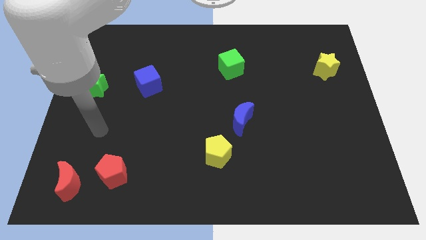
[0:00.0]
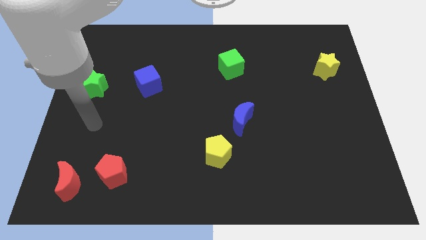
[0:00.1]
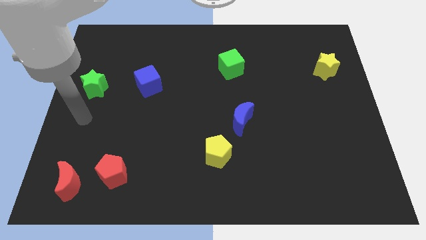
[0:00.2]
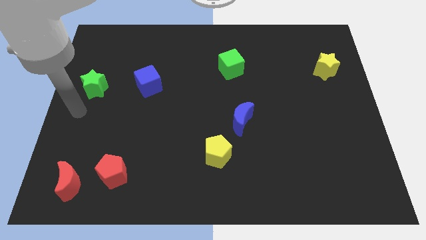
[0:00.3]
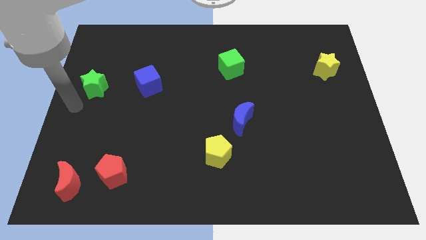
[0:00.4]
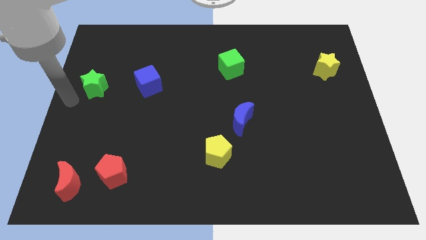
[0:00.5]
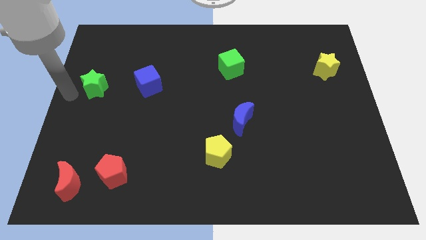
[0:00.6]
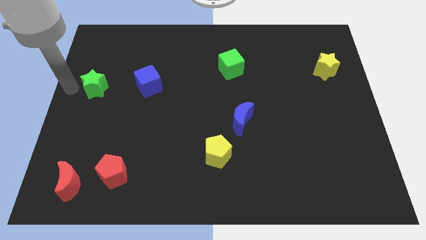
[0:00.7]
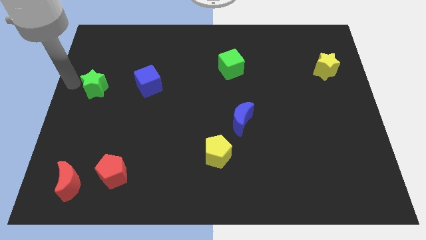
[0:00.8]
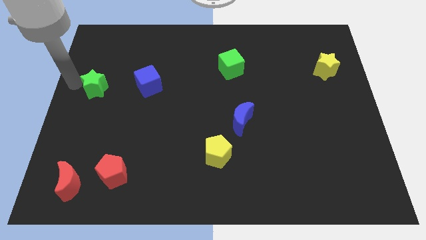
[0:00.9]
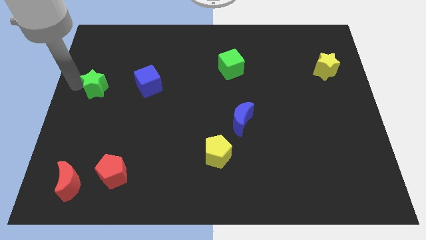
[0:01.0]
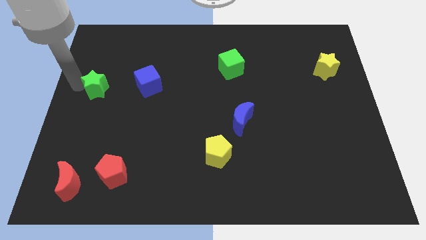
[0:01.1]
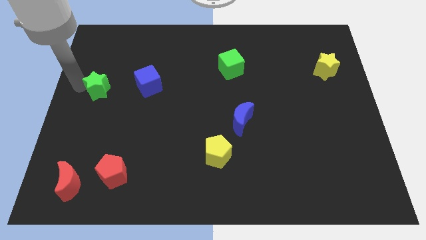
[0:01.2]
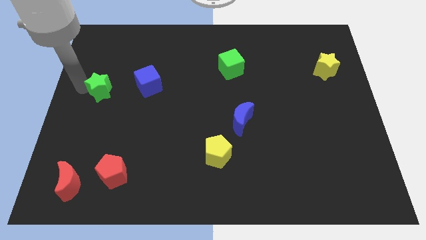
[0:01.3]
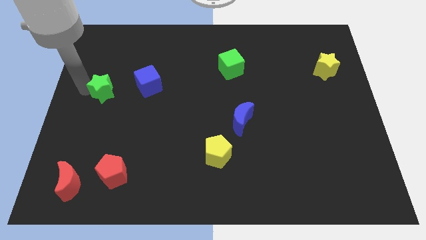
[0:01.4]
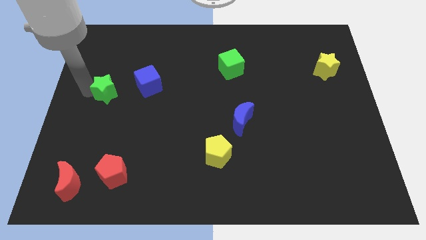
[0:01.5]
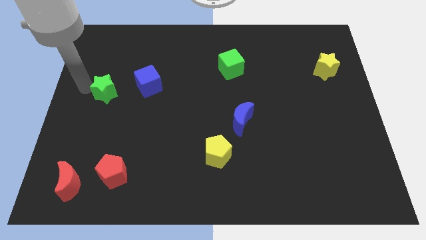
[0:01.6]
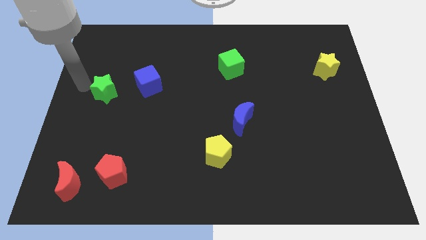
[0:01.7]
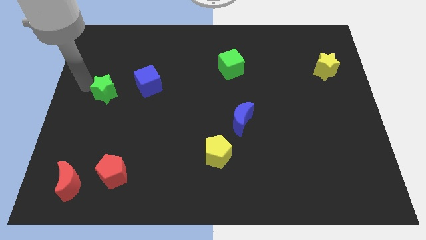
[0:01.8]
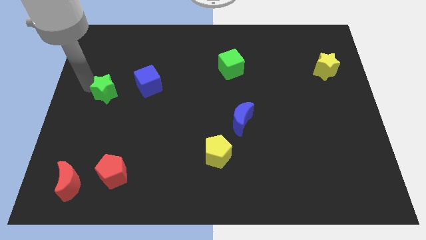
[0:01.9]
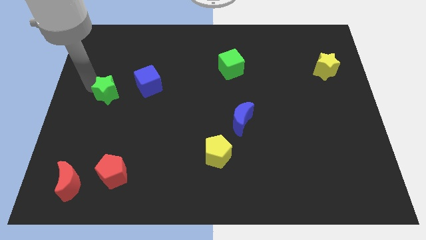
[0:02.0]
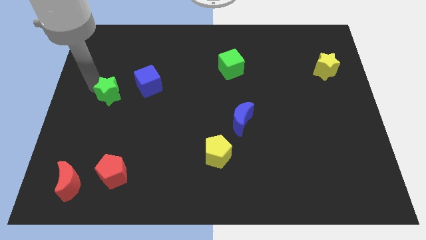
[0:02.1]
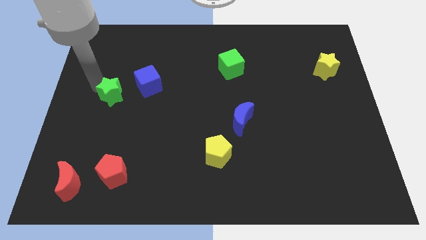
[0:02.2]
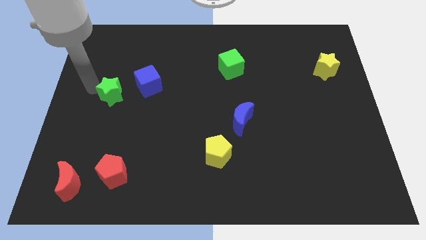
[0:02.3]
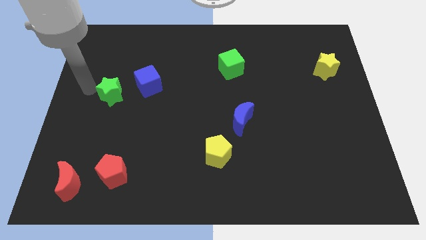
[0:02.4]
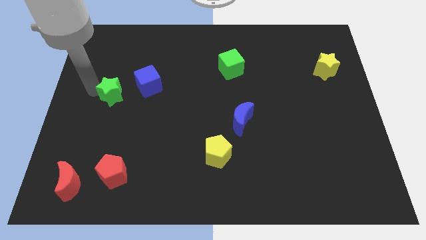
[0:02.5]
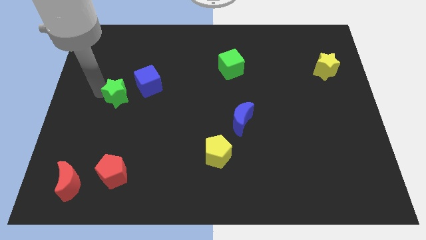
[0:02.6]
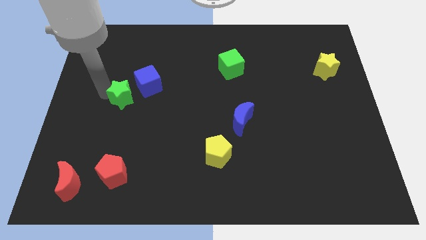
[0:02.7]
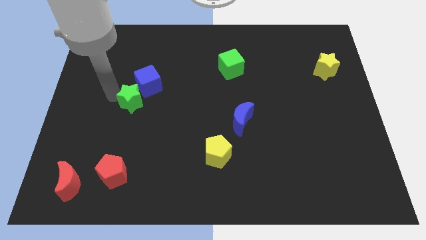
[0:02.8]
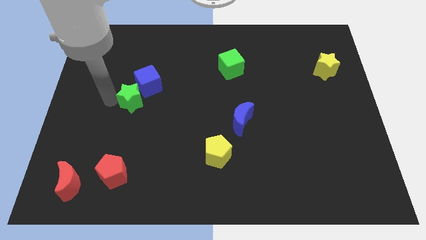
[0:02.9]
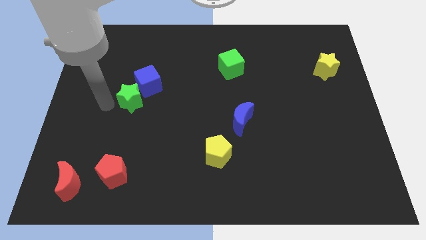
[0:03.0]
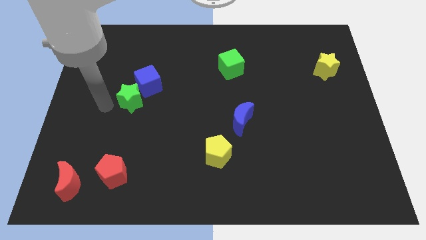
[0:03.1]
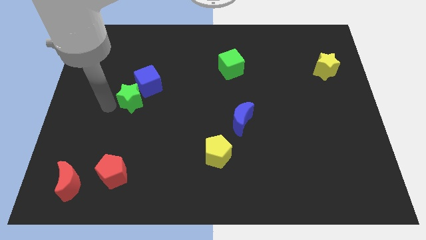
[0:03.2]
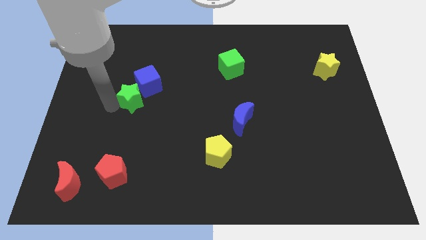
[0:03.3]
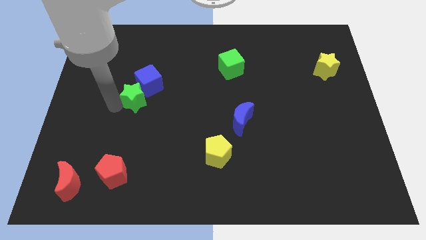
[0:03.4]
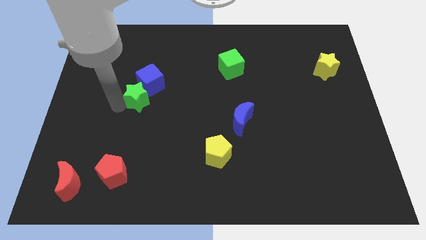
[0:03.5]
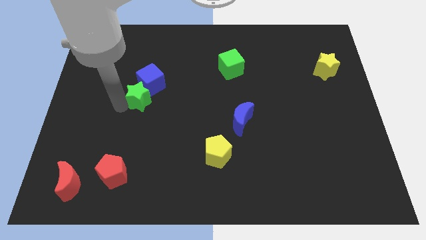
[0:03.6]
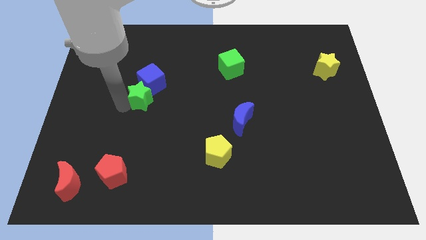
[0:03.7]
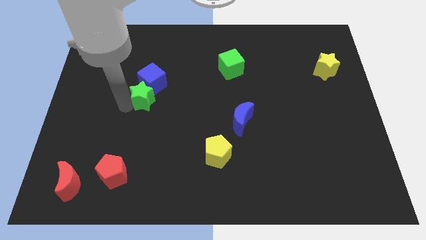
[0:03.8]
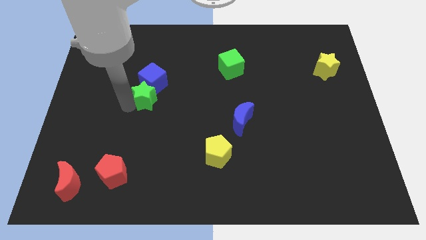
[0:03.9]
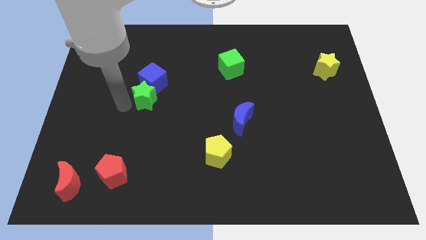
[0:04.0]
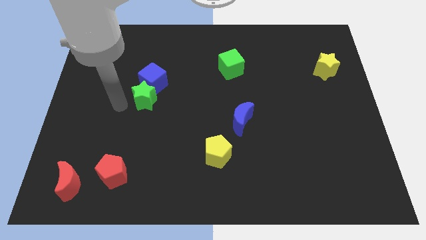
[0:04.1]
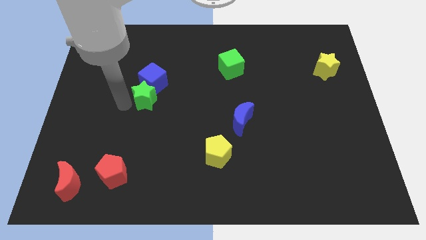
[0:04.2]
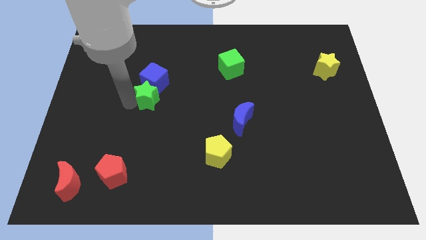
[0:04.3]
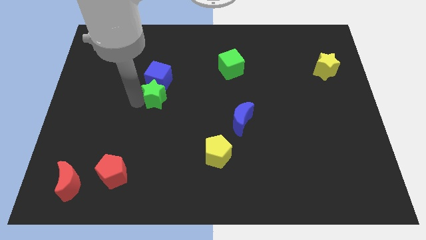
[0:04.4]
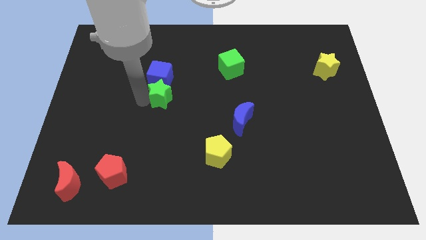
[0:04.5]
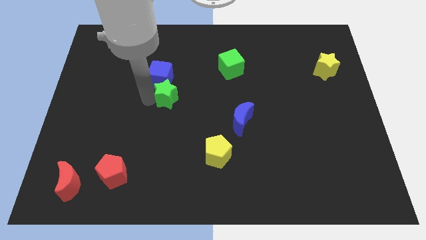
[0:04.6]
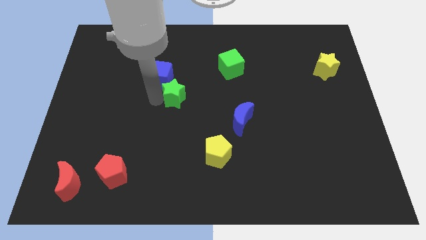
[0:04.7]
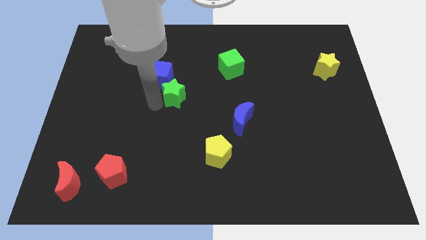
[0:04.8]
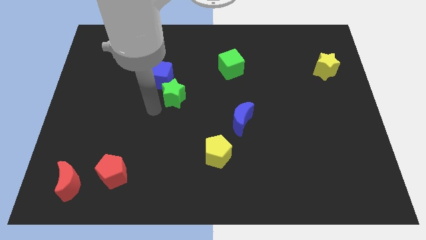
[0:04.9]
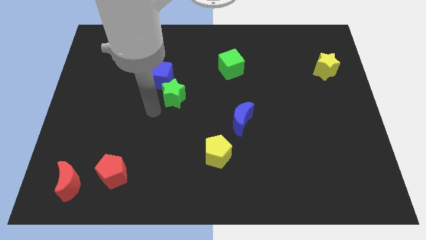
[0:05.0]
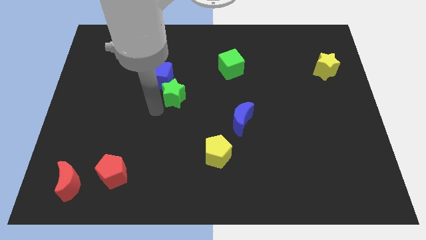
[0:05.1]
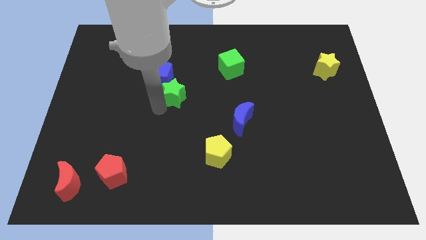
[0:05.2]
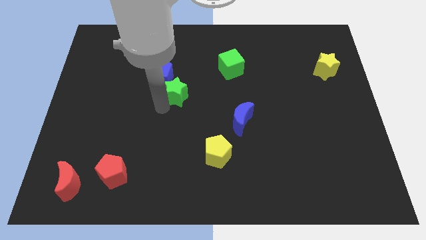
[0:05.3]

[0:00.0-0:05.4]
move the green star right

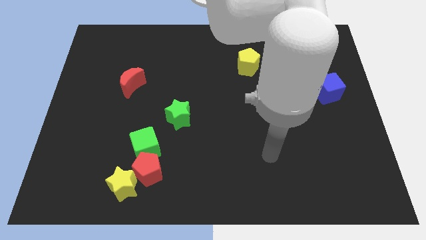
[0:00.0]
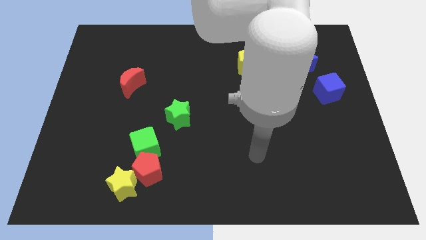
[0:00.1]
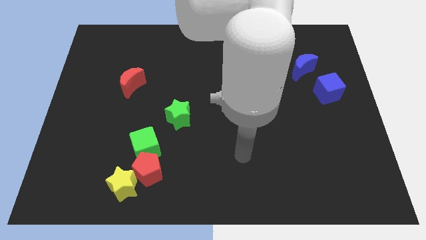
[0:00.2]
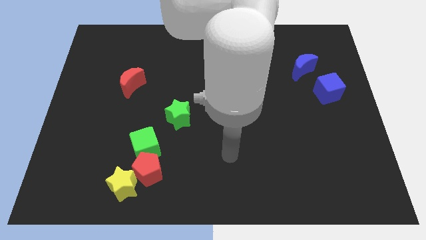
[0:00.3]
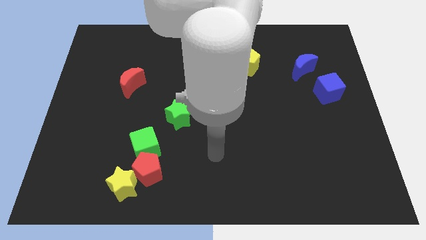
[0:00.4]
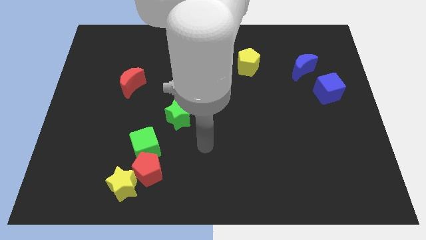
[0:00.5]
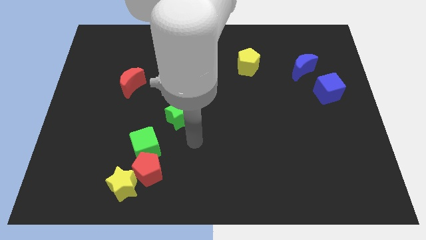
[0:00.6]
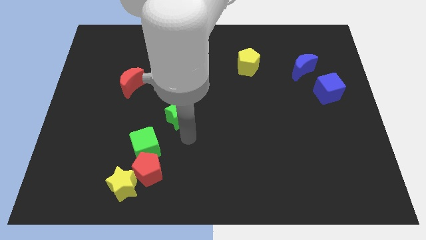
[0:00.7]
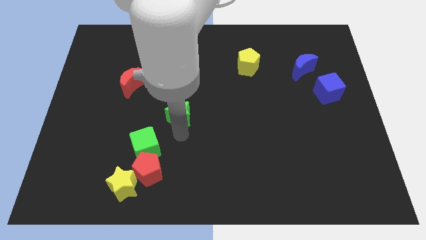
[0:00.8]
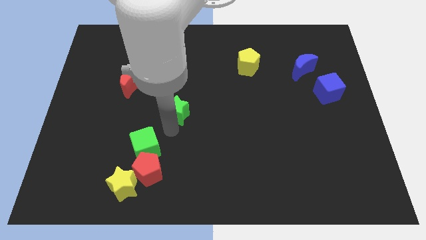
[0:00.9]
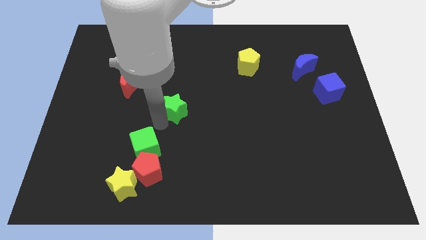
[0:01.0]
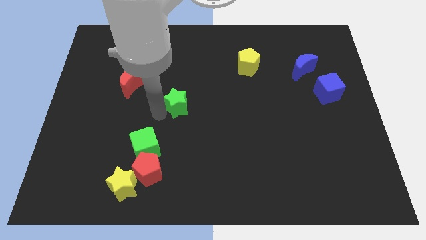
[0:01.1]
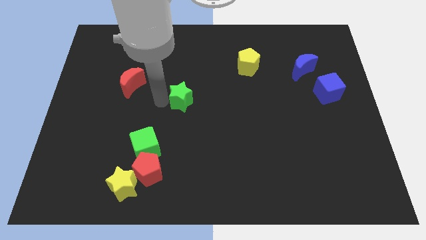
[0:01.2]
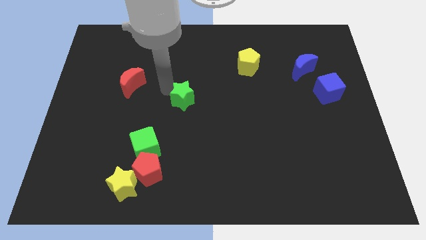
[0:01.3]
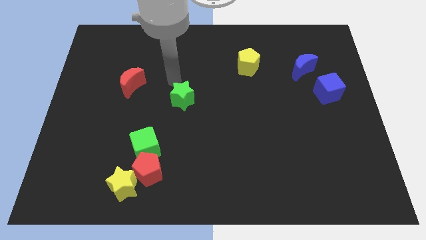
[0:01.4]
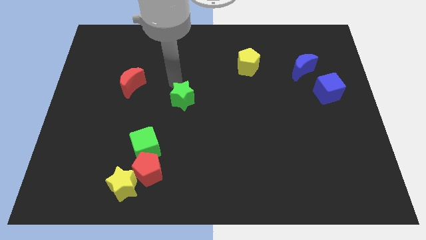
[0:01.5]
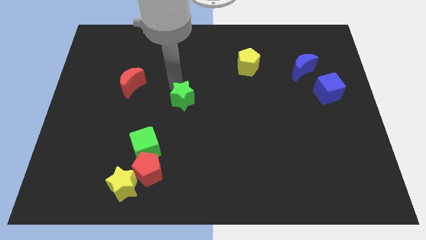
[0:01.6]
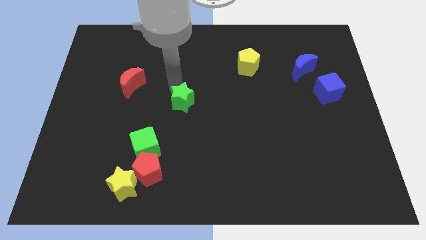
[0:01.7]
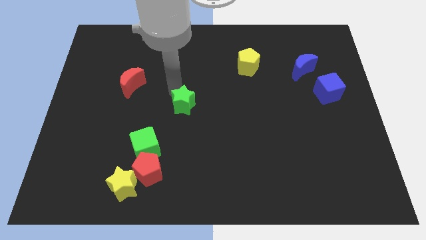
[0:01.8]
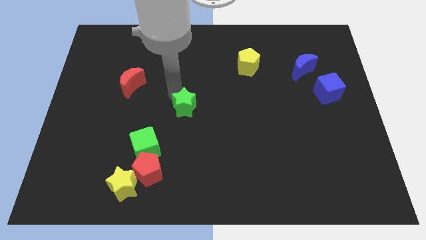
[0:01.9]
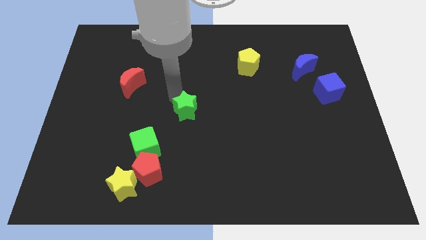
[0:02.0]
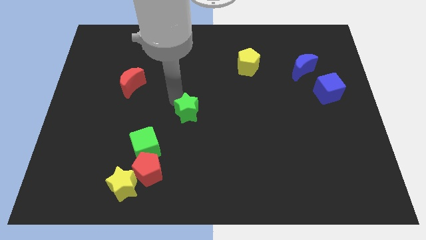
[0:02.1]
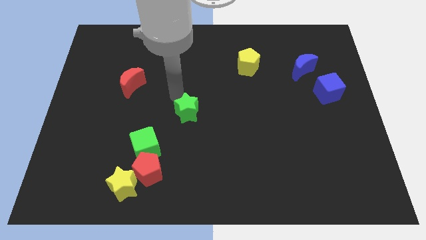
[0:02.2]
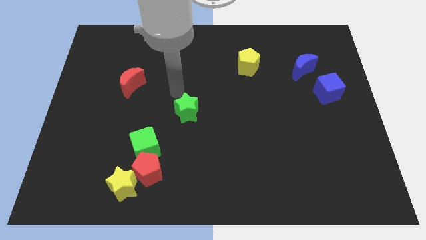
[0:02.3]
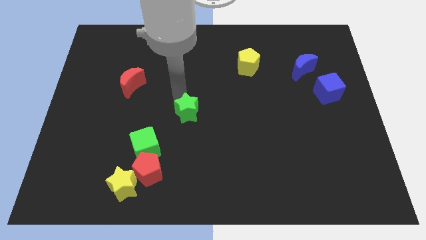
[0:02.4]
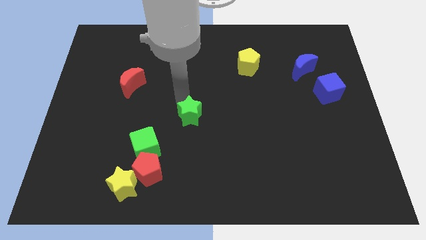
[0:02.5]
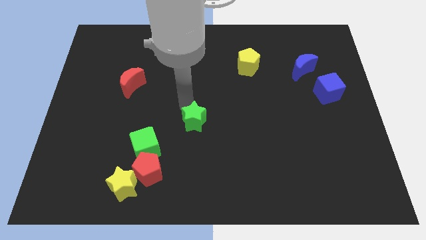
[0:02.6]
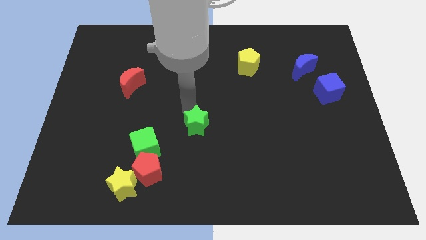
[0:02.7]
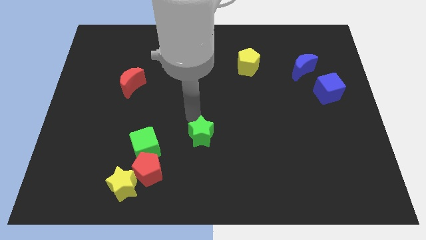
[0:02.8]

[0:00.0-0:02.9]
slightly push the green star down and then right
